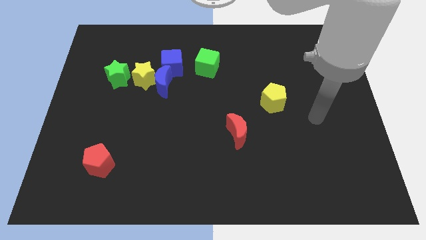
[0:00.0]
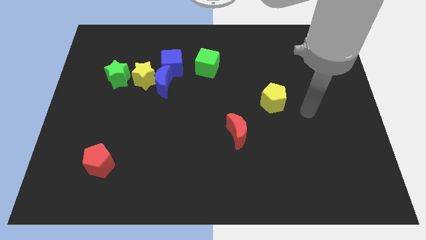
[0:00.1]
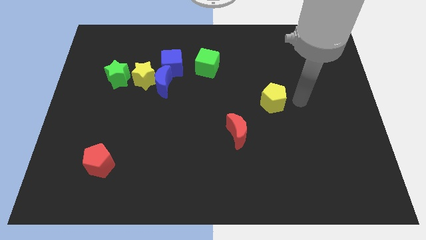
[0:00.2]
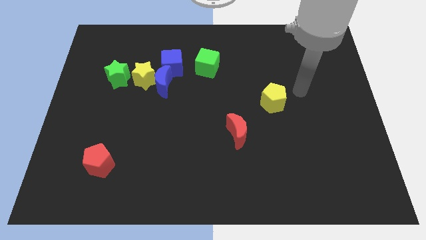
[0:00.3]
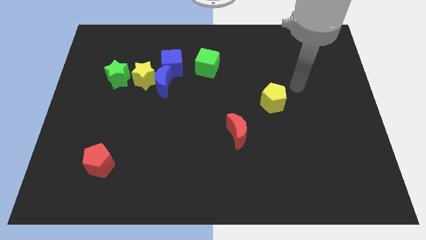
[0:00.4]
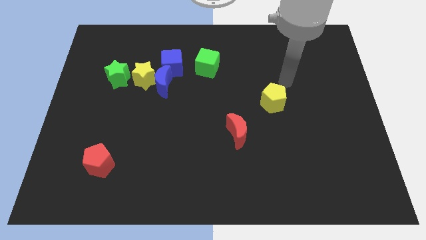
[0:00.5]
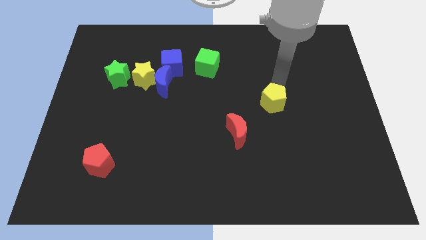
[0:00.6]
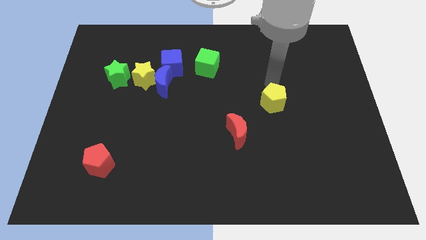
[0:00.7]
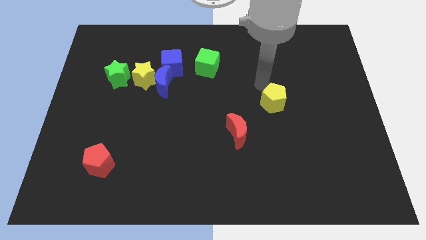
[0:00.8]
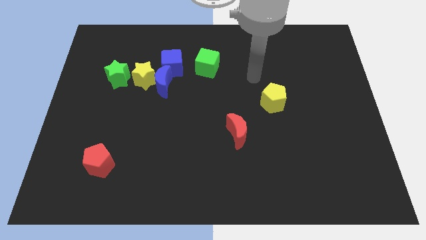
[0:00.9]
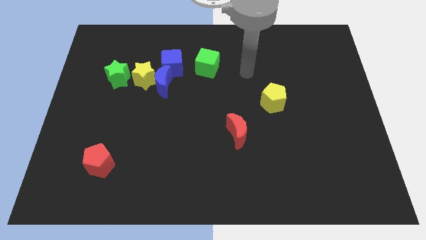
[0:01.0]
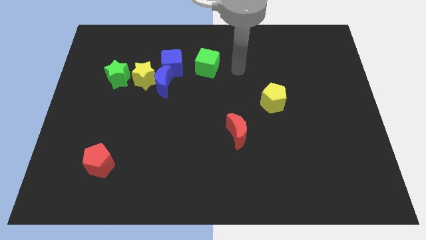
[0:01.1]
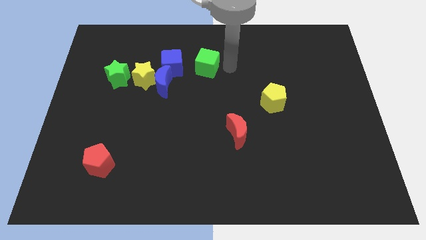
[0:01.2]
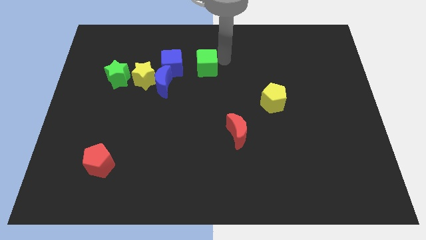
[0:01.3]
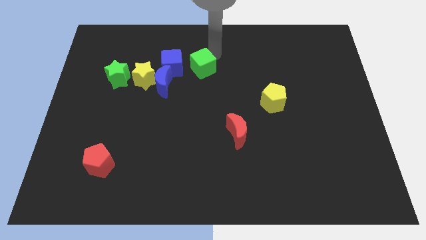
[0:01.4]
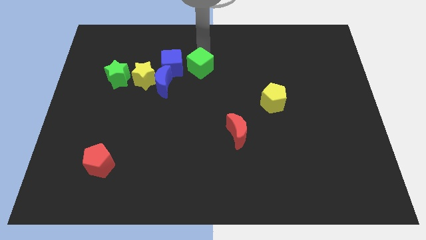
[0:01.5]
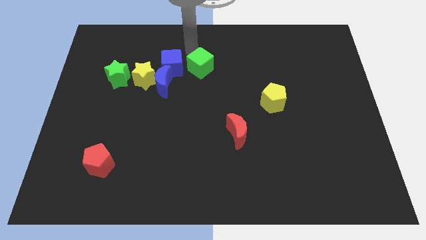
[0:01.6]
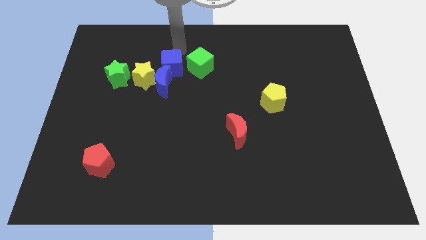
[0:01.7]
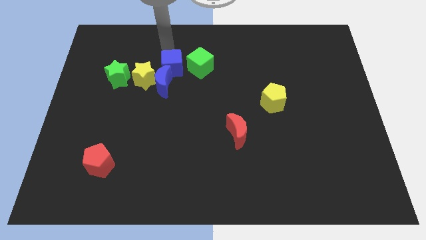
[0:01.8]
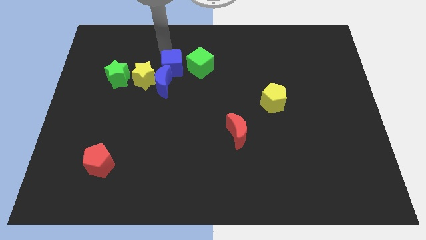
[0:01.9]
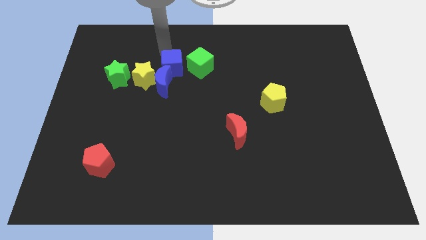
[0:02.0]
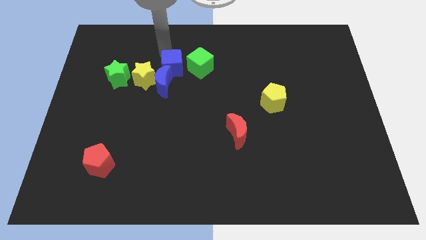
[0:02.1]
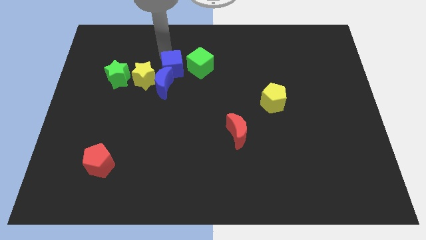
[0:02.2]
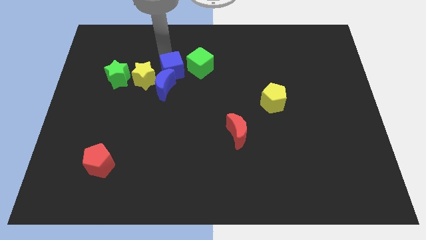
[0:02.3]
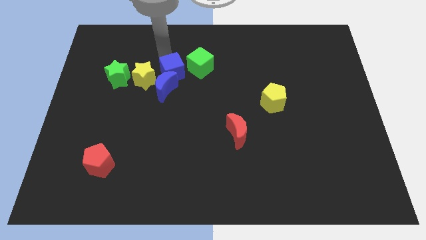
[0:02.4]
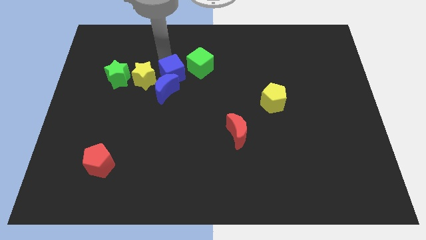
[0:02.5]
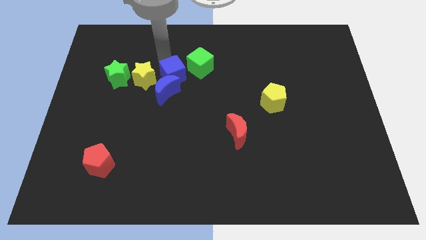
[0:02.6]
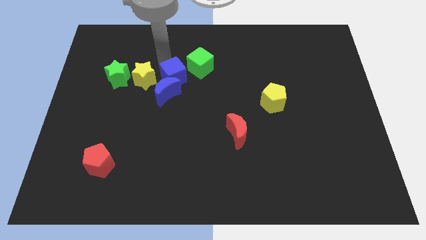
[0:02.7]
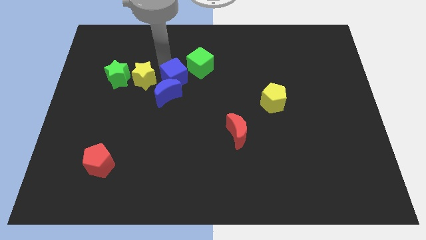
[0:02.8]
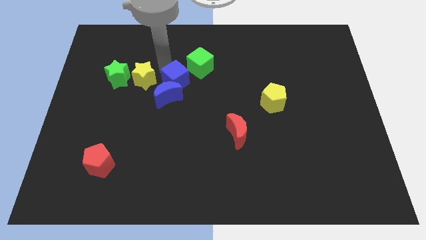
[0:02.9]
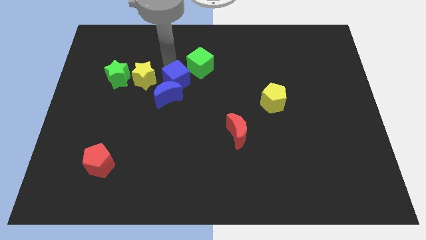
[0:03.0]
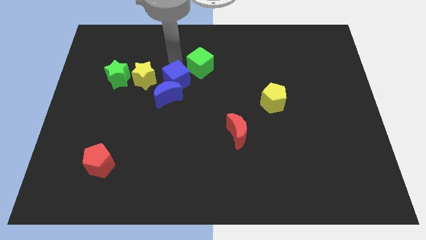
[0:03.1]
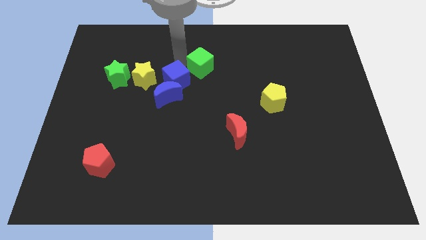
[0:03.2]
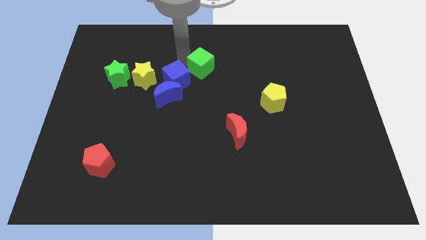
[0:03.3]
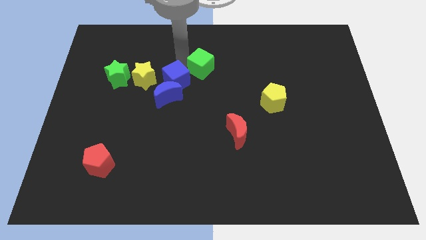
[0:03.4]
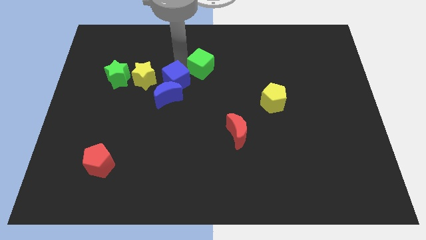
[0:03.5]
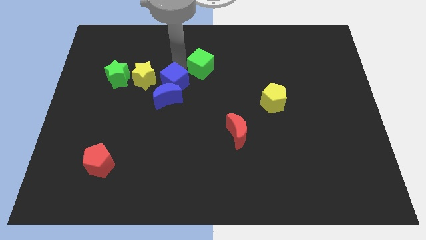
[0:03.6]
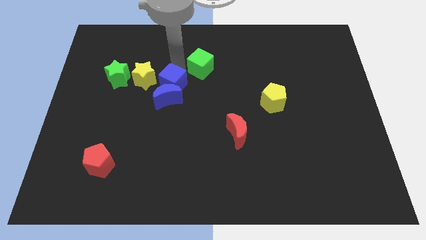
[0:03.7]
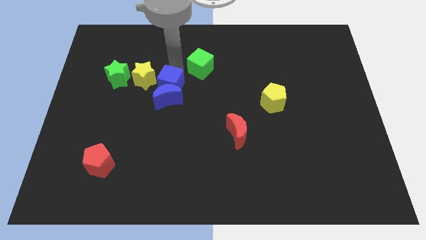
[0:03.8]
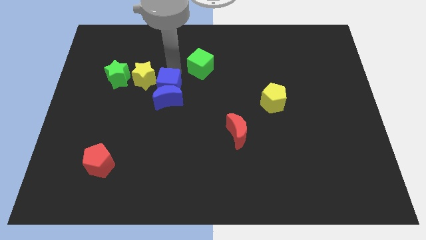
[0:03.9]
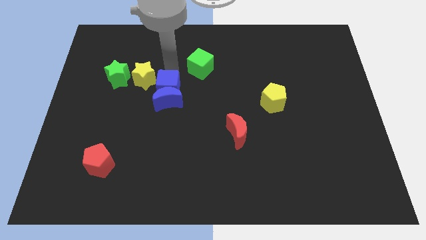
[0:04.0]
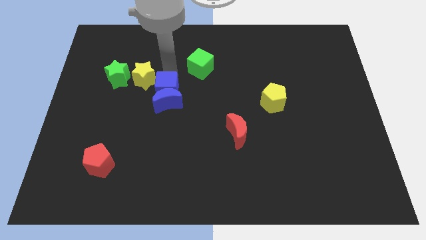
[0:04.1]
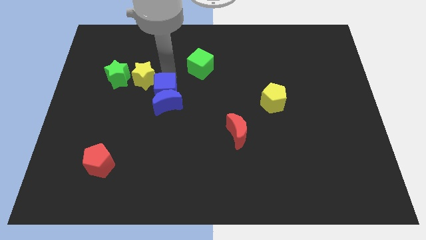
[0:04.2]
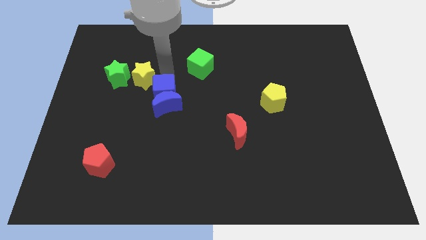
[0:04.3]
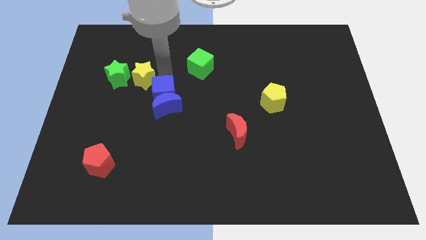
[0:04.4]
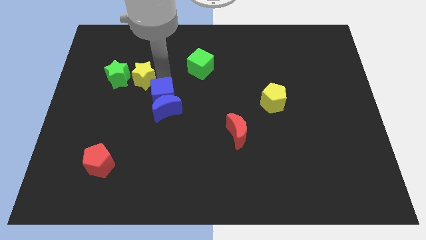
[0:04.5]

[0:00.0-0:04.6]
slightly push the blue cube down and to the left

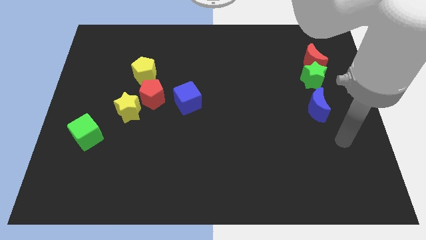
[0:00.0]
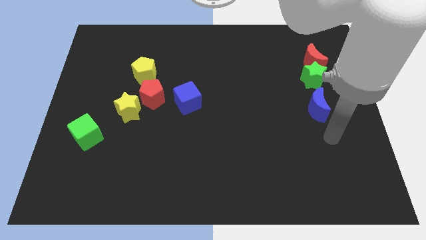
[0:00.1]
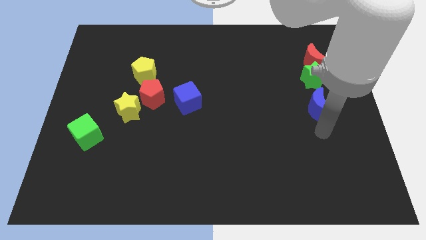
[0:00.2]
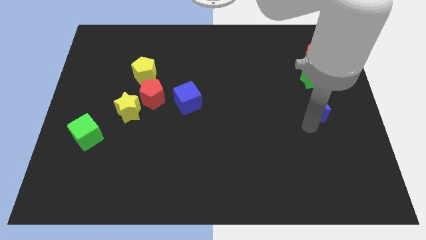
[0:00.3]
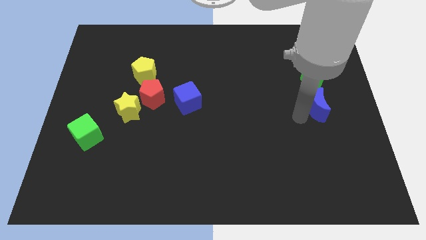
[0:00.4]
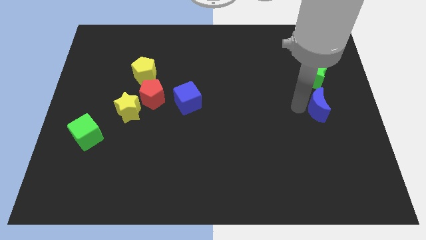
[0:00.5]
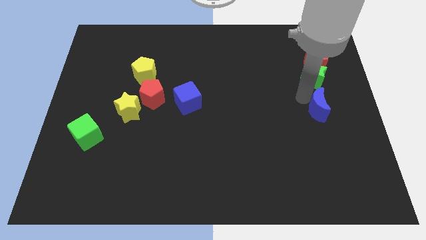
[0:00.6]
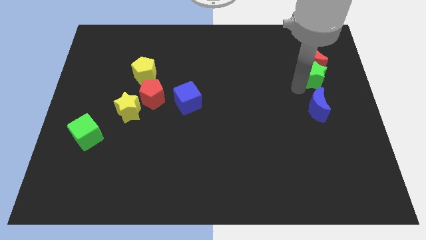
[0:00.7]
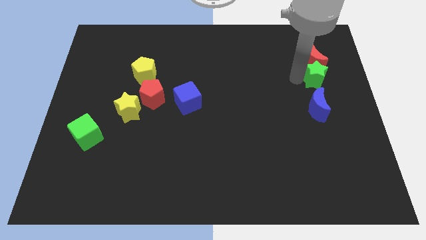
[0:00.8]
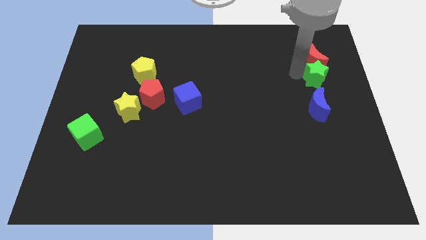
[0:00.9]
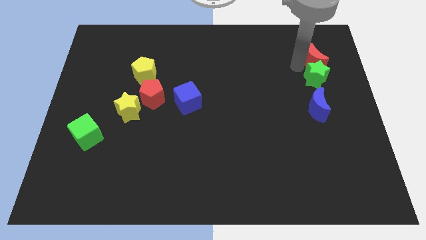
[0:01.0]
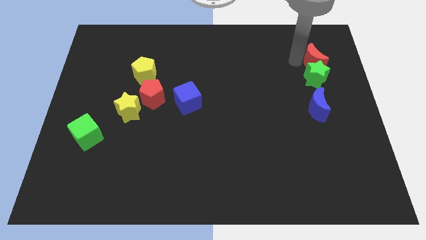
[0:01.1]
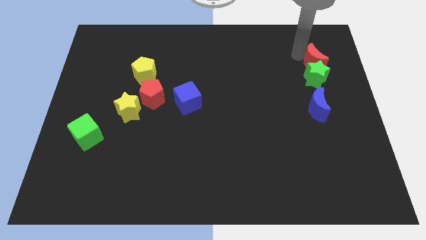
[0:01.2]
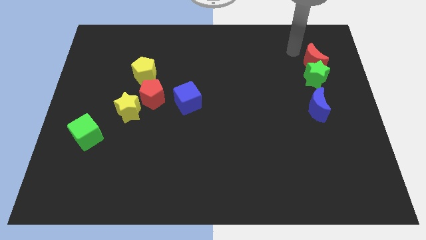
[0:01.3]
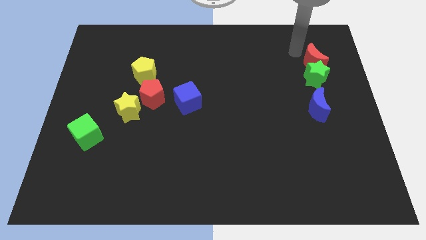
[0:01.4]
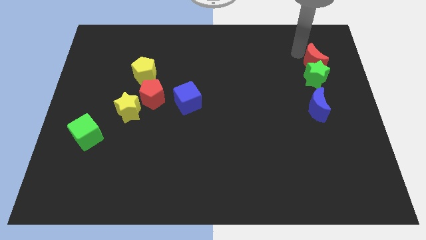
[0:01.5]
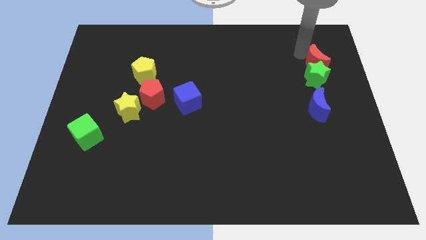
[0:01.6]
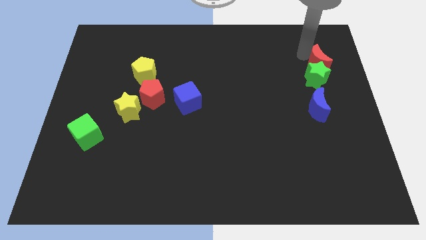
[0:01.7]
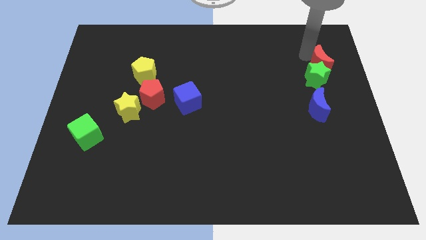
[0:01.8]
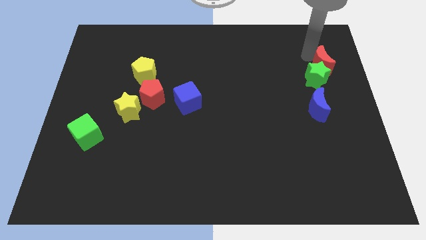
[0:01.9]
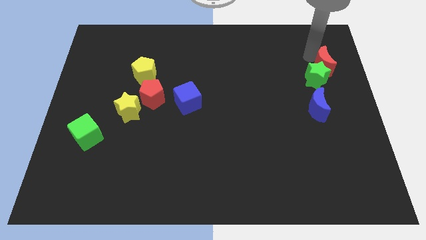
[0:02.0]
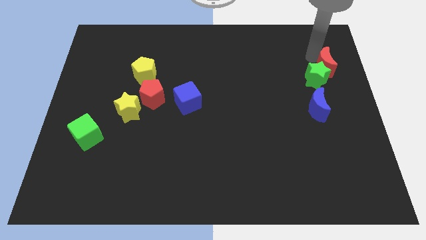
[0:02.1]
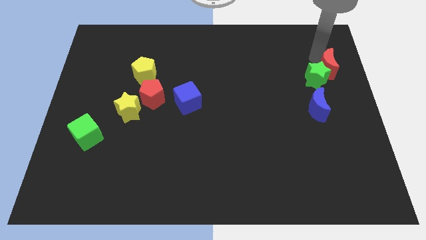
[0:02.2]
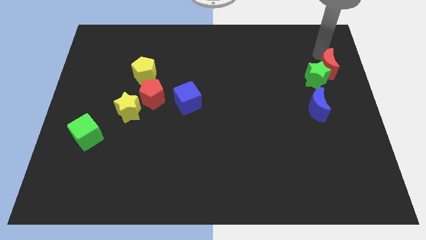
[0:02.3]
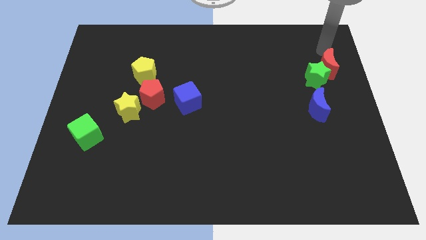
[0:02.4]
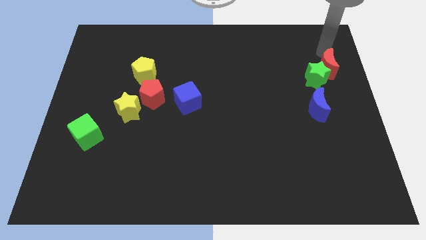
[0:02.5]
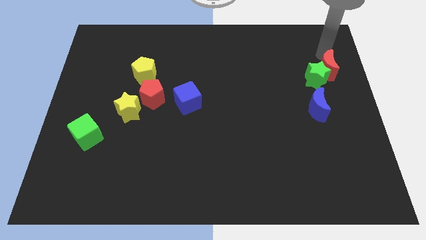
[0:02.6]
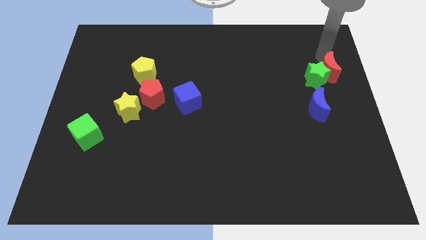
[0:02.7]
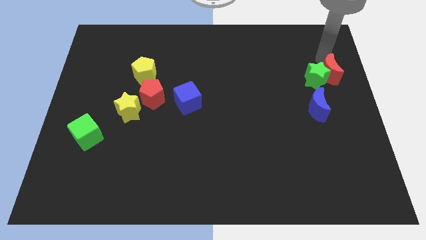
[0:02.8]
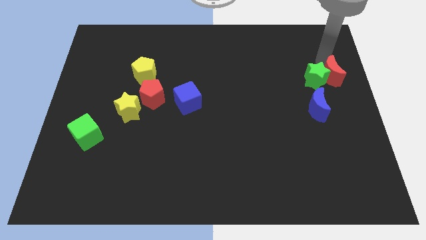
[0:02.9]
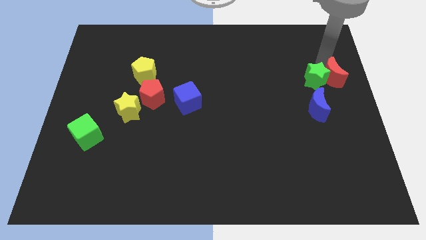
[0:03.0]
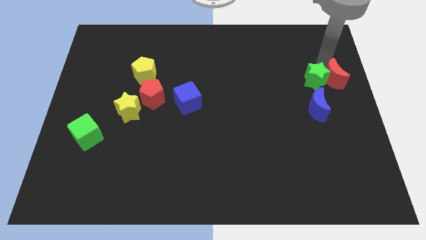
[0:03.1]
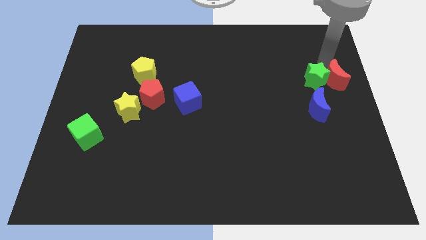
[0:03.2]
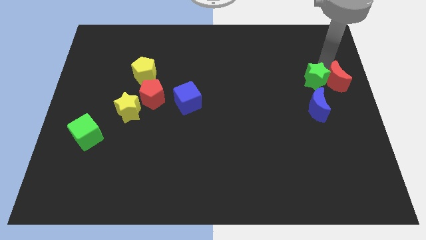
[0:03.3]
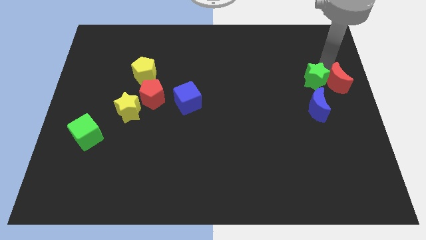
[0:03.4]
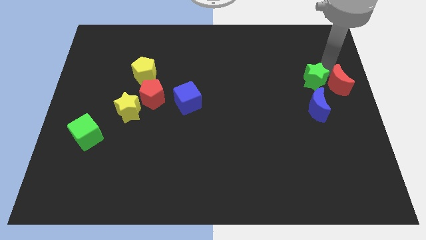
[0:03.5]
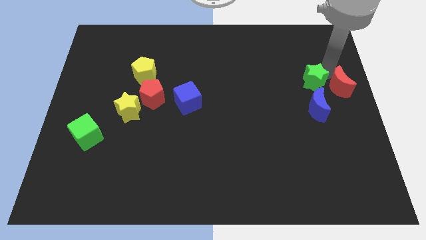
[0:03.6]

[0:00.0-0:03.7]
slide the red moon a little down

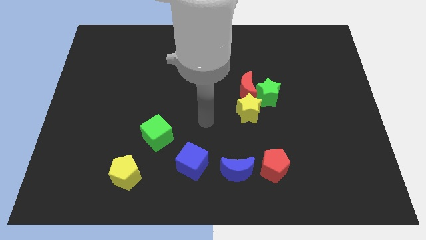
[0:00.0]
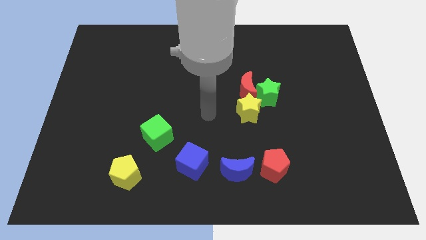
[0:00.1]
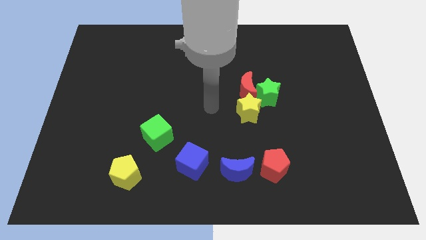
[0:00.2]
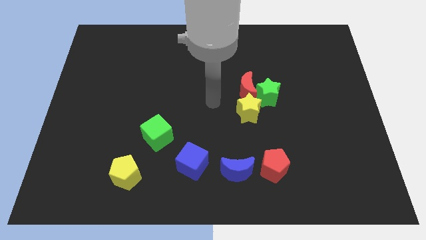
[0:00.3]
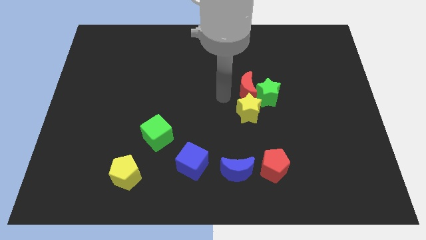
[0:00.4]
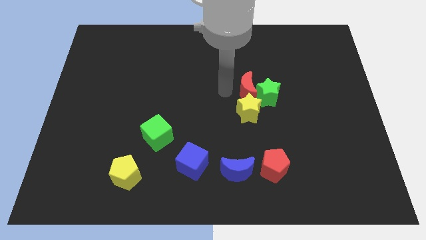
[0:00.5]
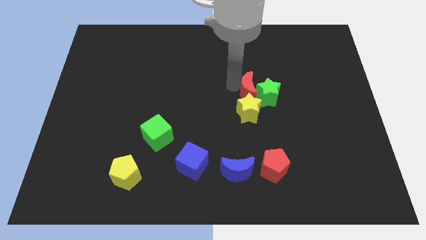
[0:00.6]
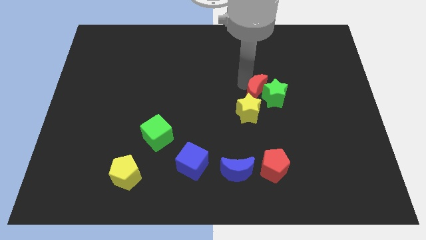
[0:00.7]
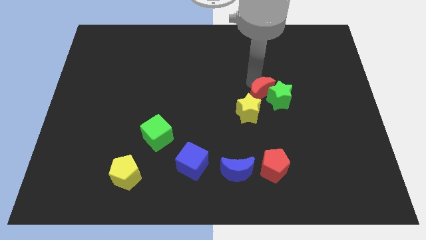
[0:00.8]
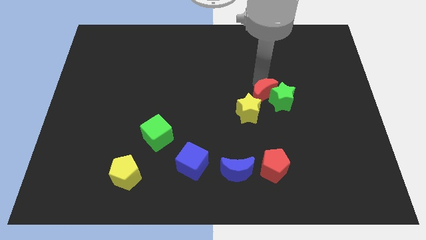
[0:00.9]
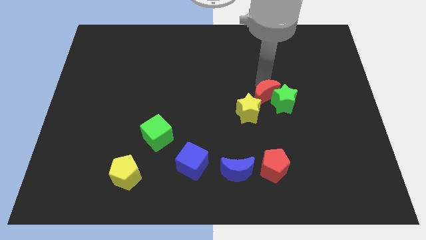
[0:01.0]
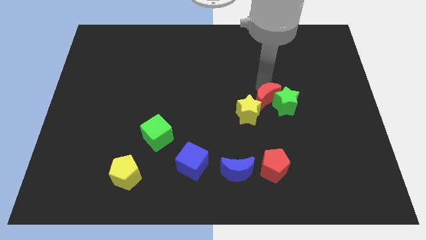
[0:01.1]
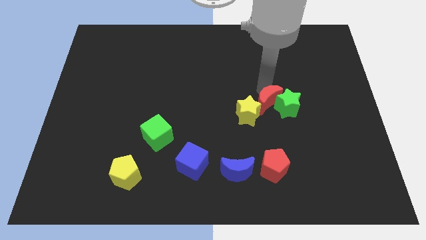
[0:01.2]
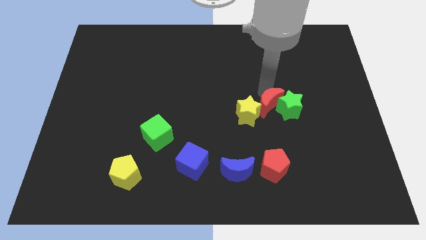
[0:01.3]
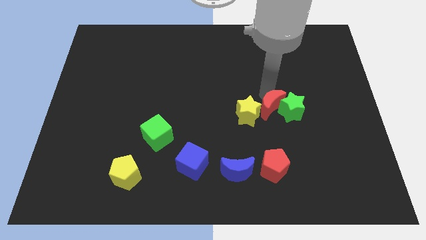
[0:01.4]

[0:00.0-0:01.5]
slightly move the green star downwards and then to the right
